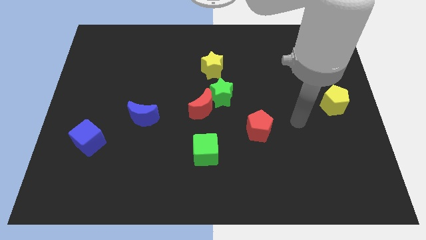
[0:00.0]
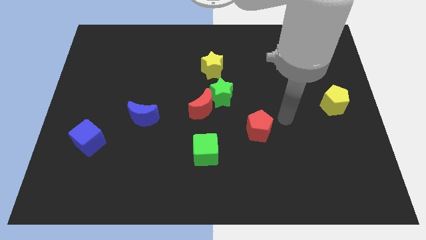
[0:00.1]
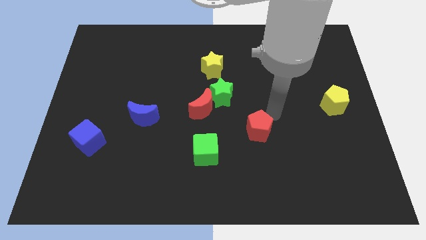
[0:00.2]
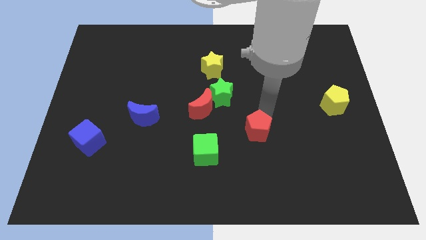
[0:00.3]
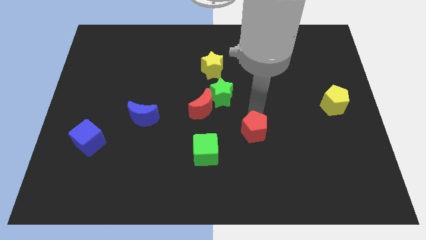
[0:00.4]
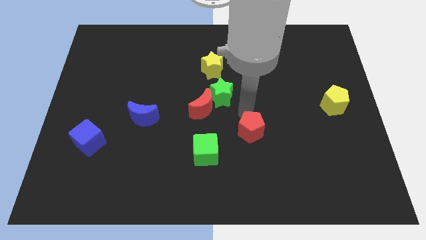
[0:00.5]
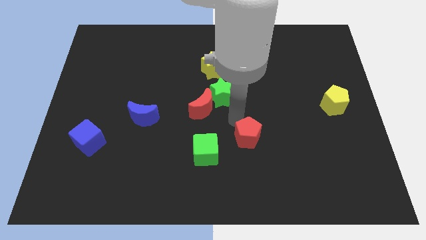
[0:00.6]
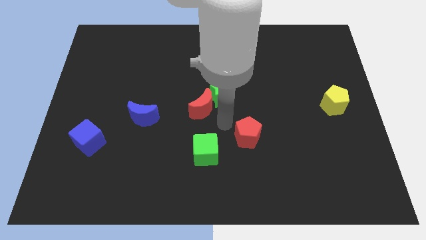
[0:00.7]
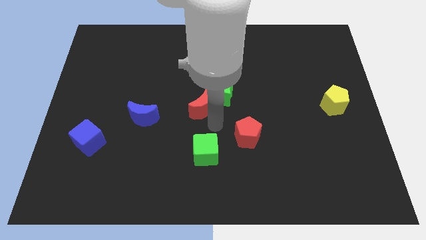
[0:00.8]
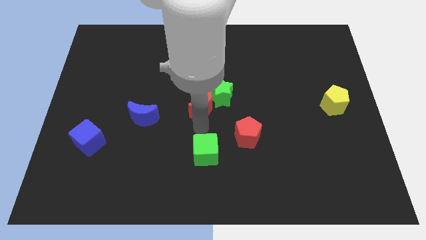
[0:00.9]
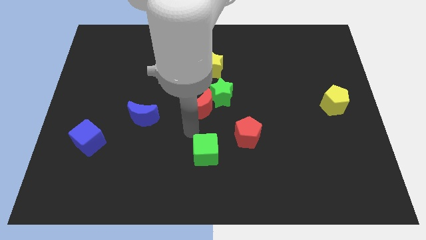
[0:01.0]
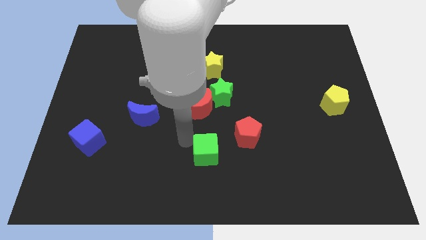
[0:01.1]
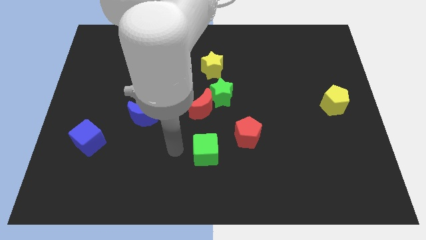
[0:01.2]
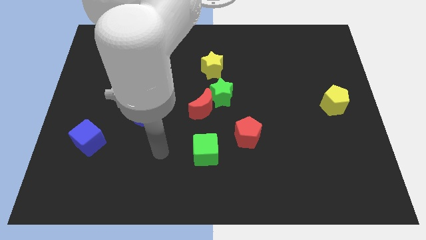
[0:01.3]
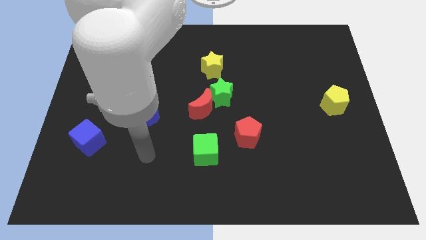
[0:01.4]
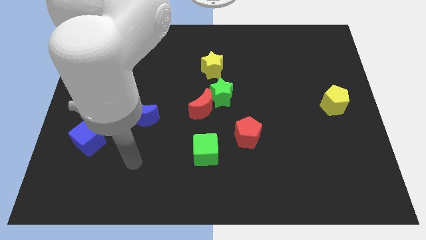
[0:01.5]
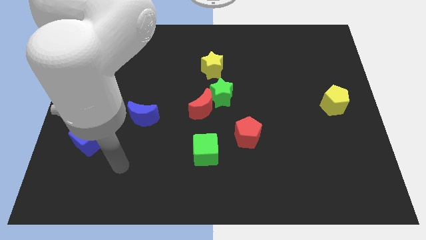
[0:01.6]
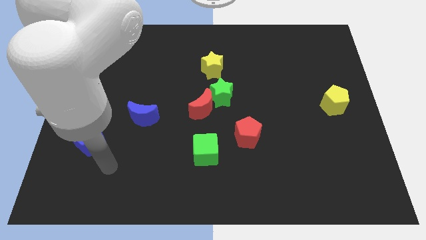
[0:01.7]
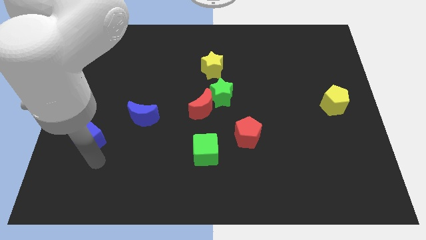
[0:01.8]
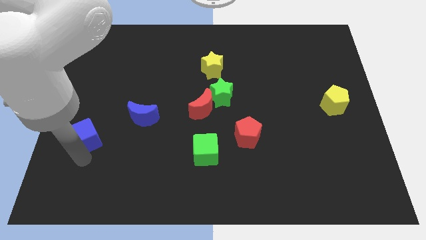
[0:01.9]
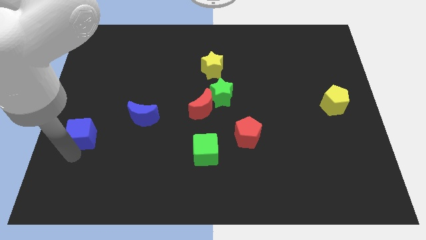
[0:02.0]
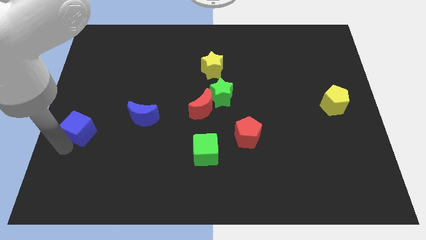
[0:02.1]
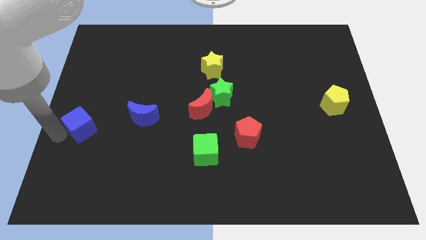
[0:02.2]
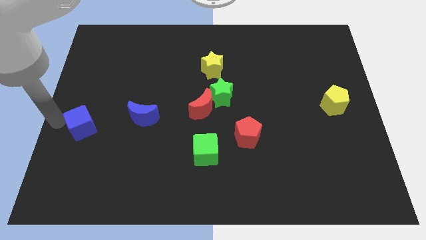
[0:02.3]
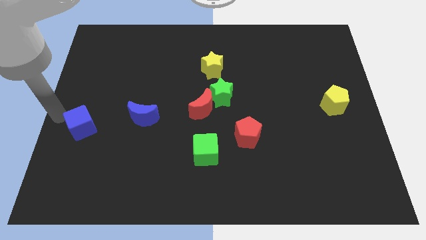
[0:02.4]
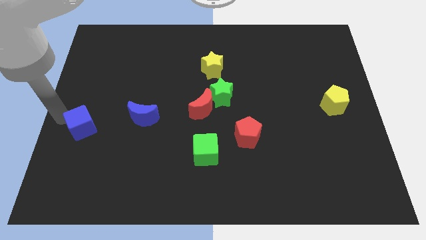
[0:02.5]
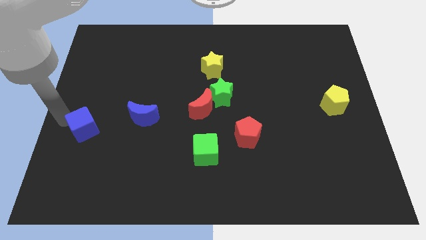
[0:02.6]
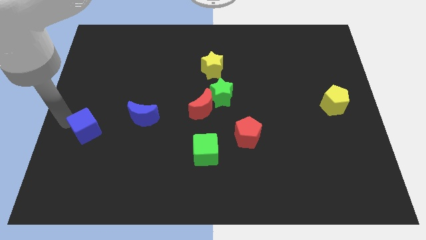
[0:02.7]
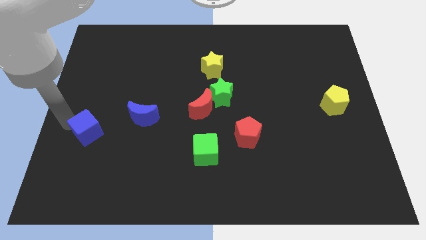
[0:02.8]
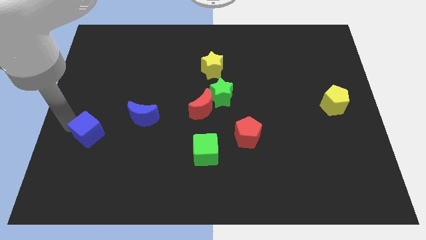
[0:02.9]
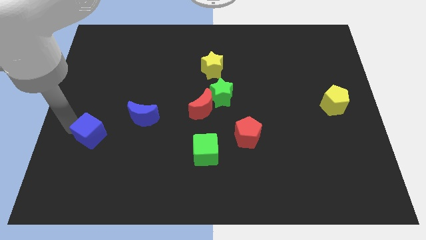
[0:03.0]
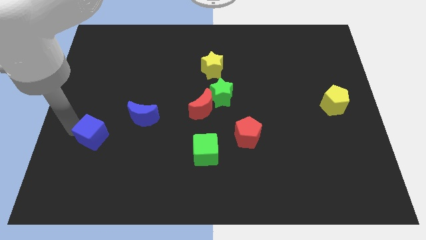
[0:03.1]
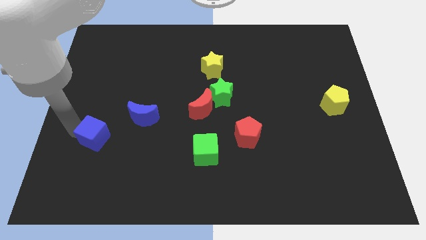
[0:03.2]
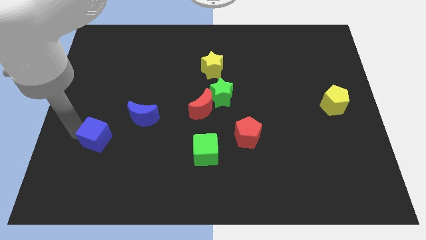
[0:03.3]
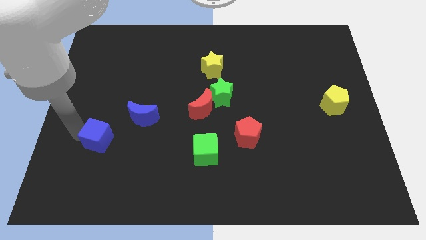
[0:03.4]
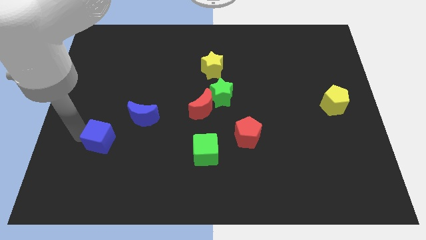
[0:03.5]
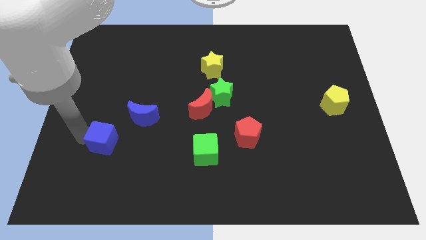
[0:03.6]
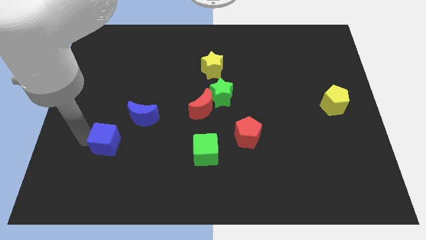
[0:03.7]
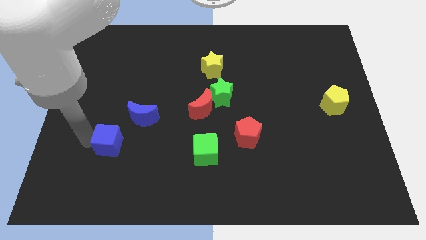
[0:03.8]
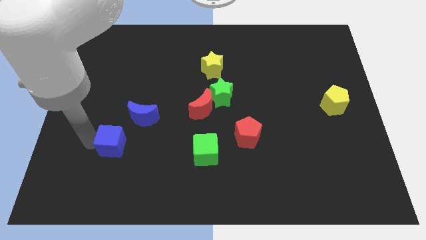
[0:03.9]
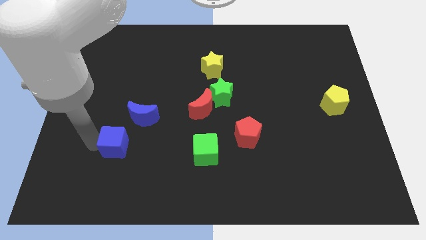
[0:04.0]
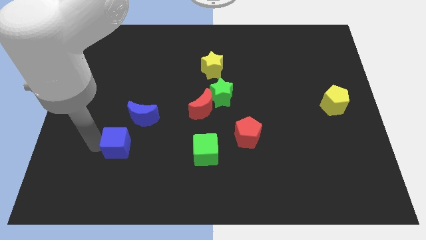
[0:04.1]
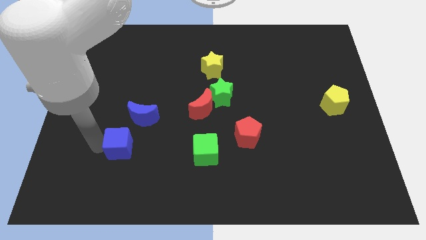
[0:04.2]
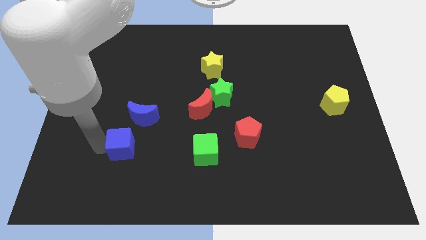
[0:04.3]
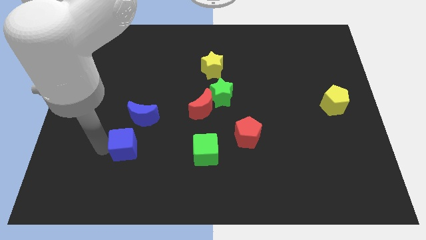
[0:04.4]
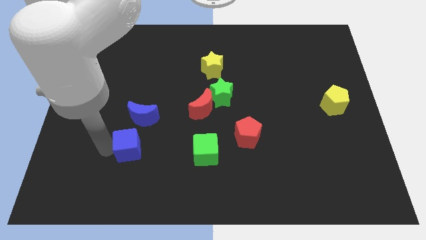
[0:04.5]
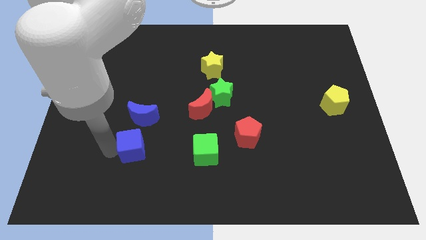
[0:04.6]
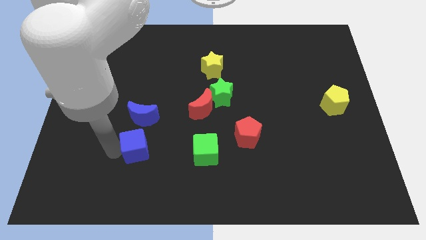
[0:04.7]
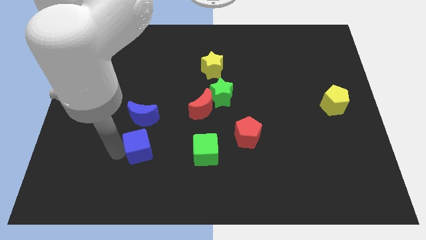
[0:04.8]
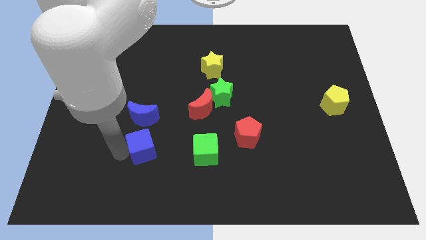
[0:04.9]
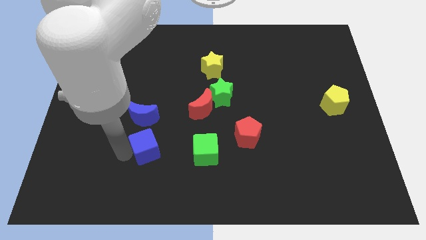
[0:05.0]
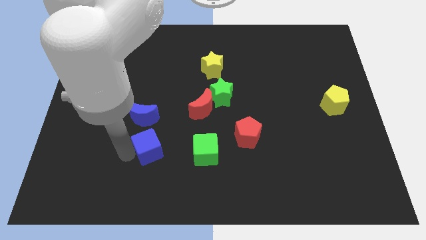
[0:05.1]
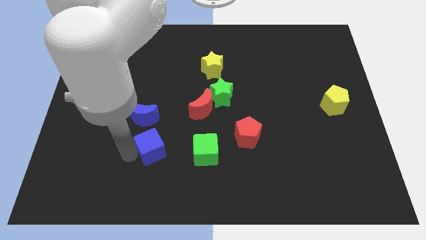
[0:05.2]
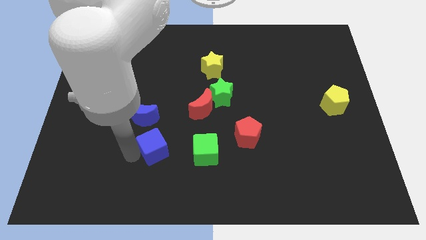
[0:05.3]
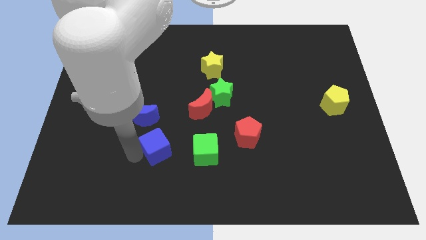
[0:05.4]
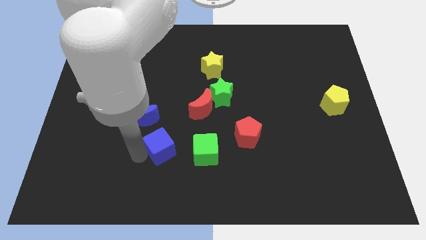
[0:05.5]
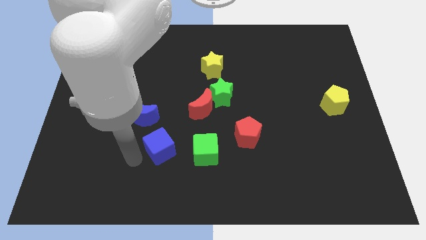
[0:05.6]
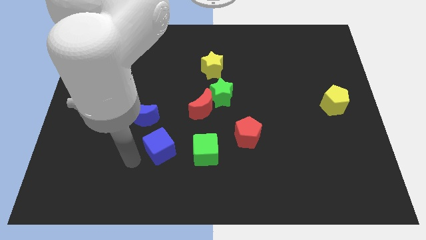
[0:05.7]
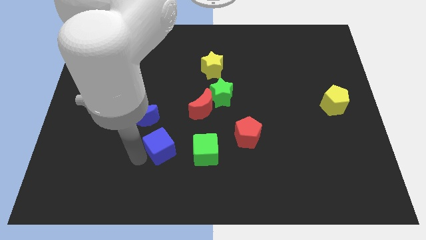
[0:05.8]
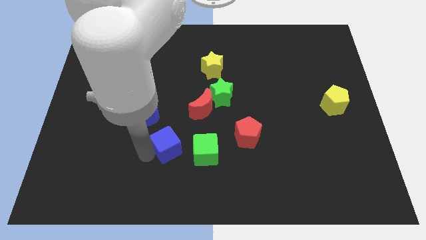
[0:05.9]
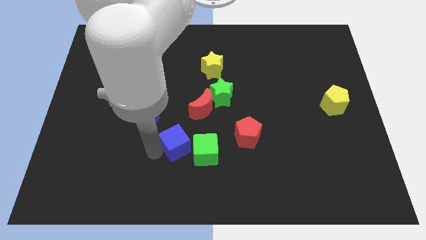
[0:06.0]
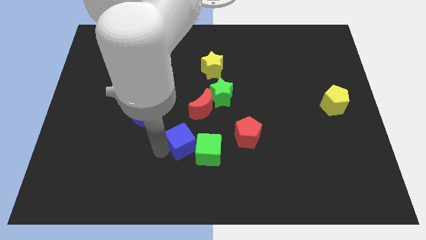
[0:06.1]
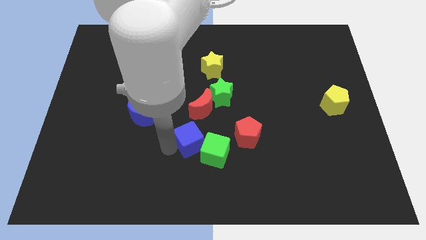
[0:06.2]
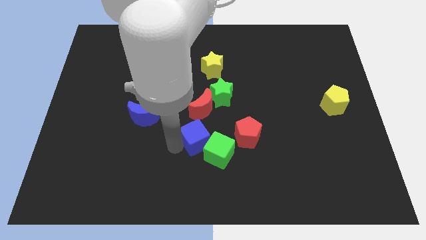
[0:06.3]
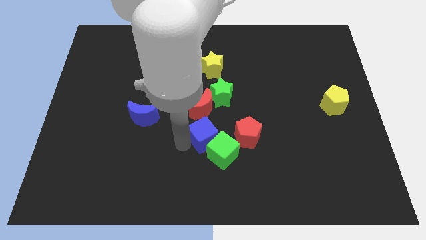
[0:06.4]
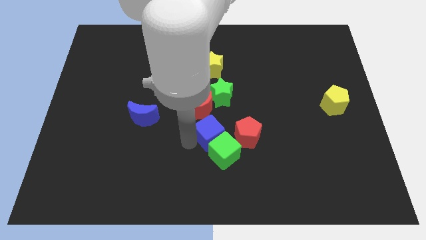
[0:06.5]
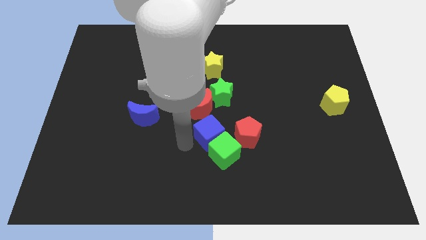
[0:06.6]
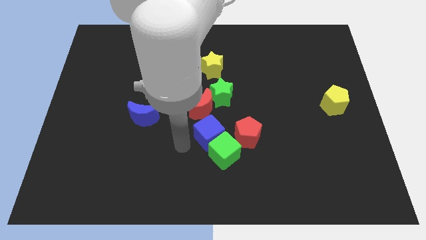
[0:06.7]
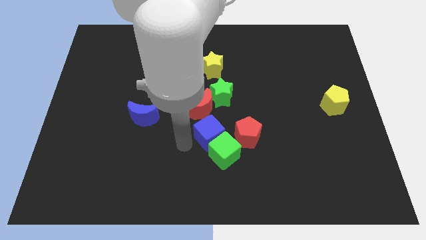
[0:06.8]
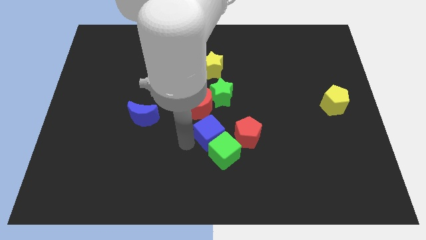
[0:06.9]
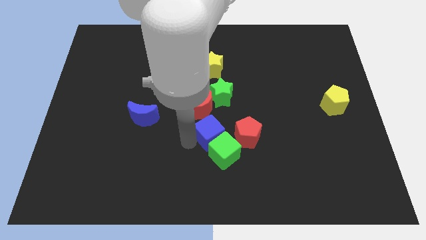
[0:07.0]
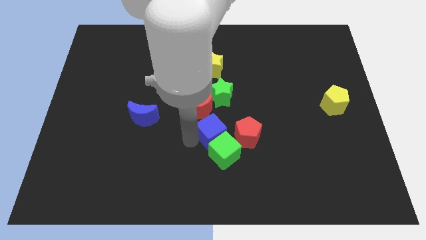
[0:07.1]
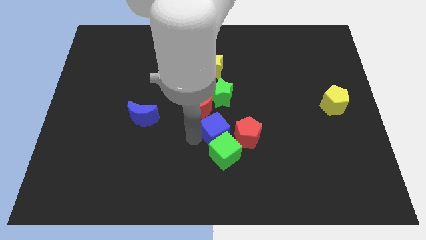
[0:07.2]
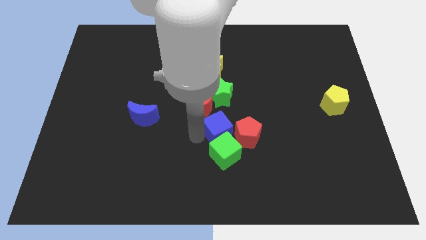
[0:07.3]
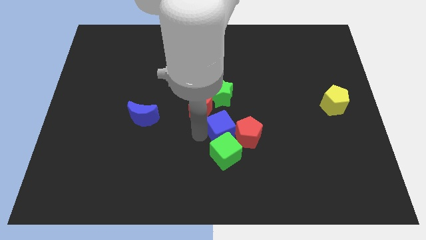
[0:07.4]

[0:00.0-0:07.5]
move the blue cube towards the red pentagon
